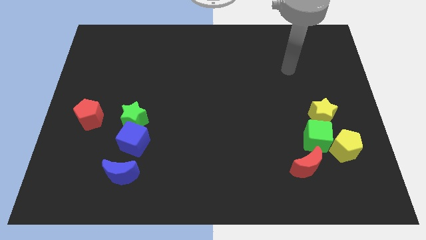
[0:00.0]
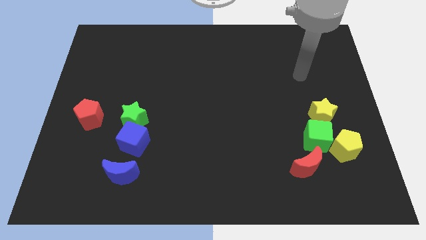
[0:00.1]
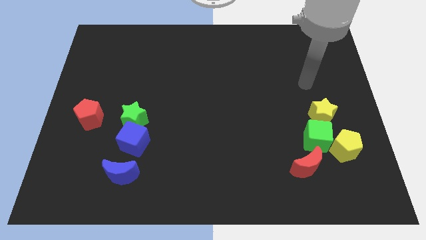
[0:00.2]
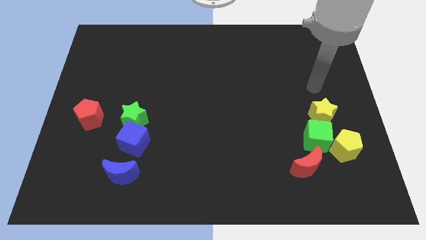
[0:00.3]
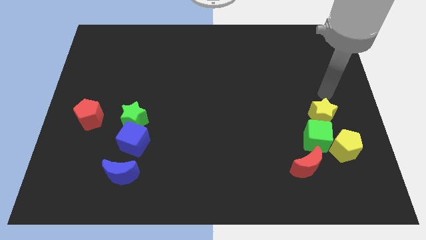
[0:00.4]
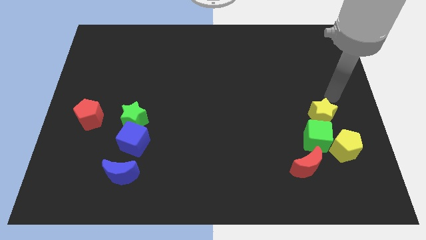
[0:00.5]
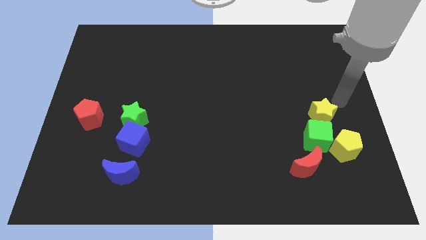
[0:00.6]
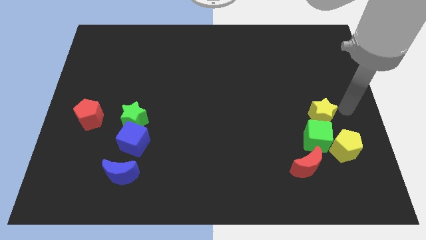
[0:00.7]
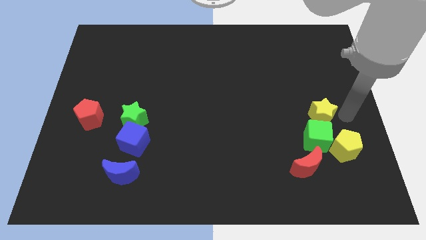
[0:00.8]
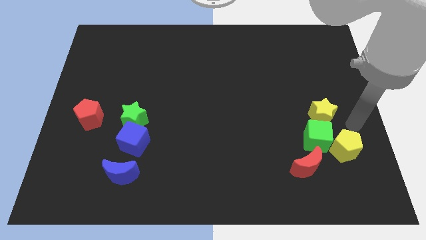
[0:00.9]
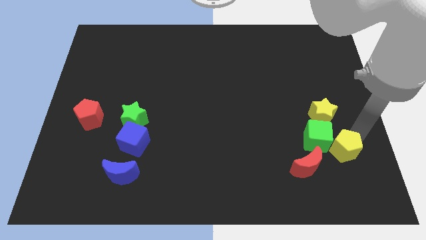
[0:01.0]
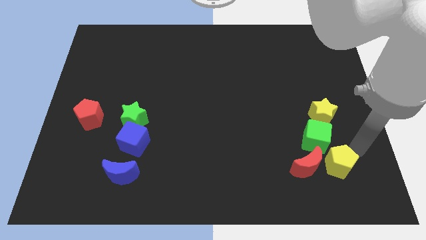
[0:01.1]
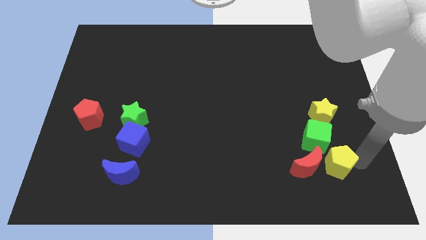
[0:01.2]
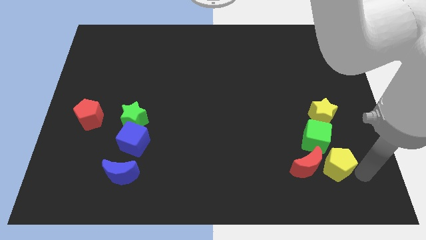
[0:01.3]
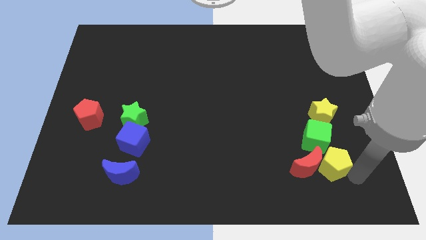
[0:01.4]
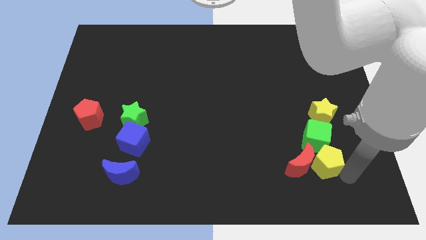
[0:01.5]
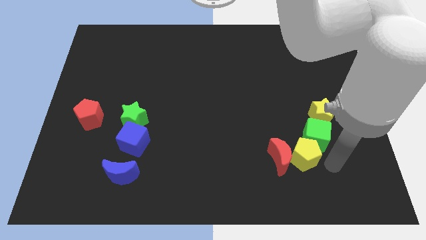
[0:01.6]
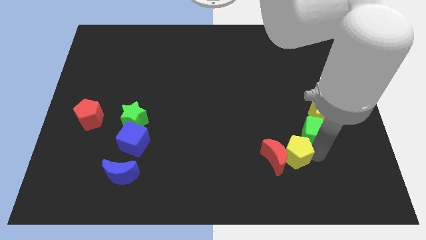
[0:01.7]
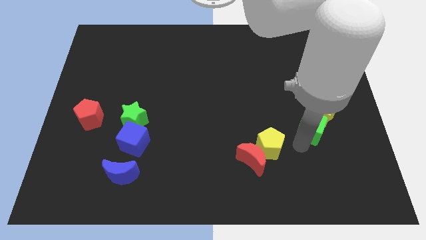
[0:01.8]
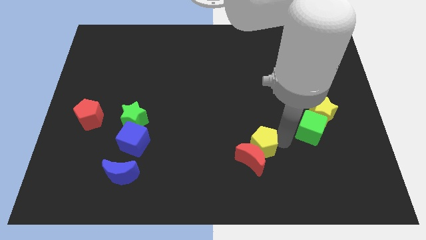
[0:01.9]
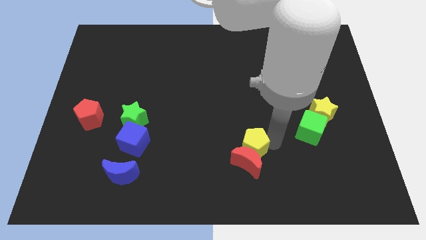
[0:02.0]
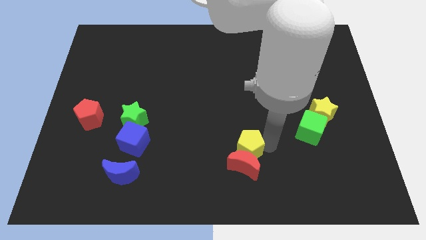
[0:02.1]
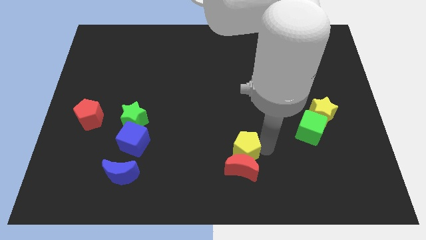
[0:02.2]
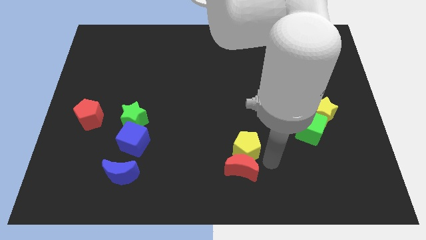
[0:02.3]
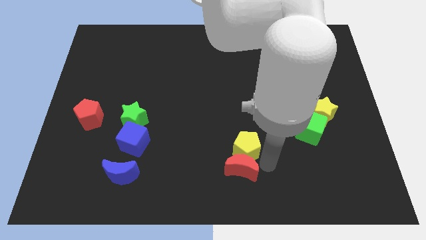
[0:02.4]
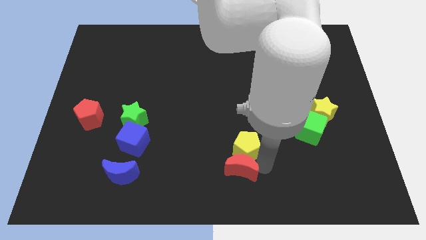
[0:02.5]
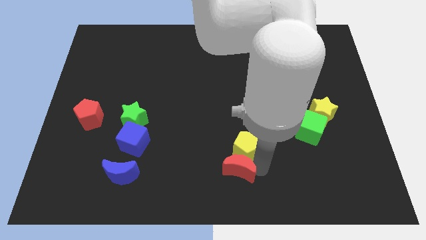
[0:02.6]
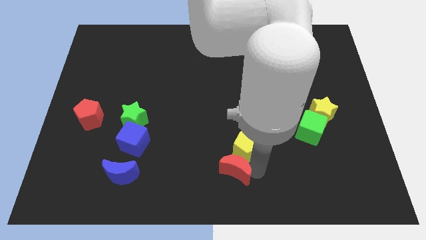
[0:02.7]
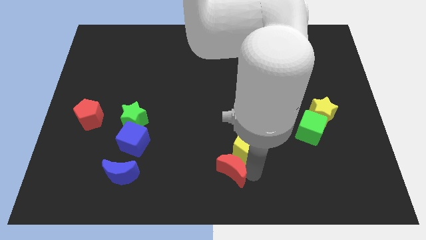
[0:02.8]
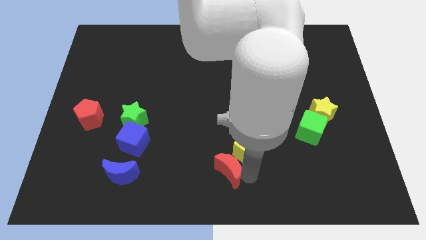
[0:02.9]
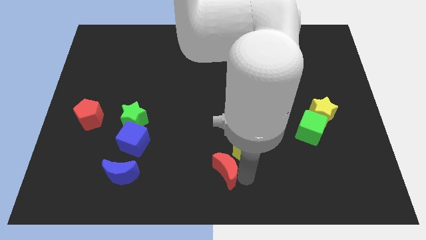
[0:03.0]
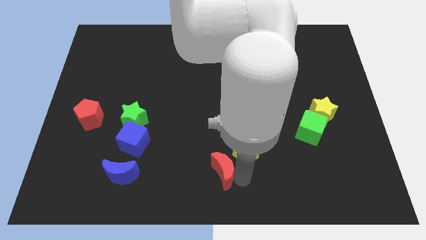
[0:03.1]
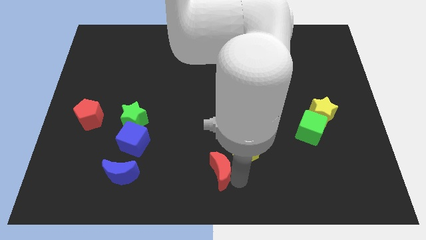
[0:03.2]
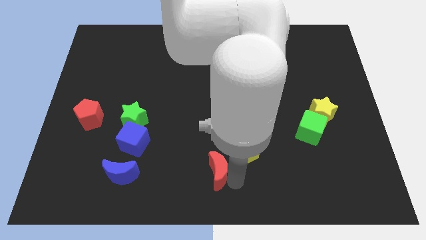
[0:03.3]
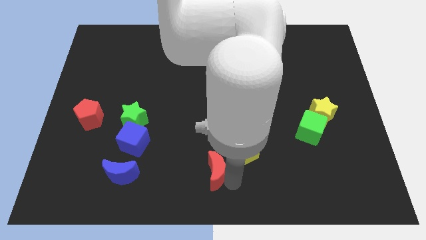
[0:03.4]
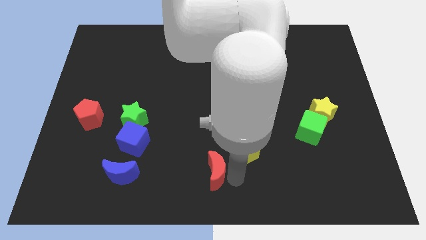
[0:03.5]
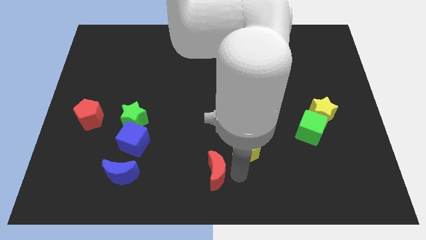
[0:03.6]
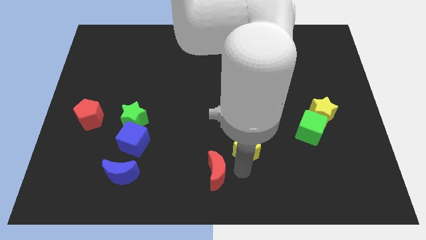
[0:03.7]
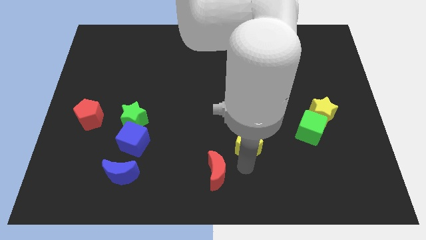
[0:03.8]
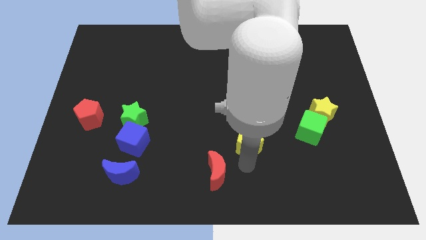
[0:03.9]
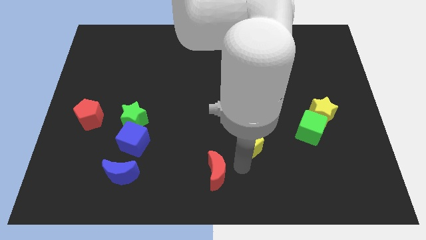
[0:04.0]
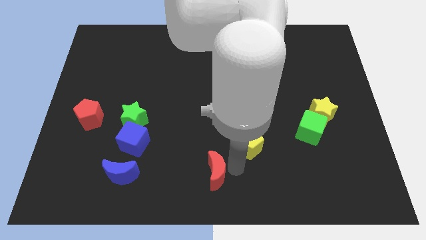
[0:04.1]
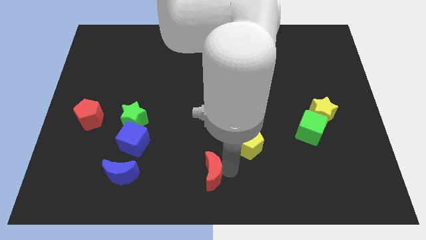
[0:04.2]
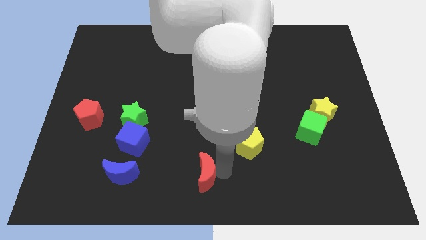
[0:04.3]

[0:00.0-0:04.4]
push the red moon left

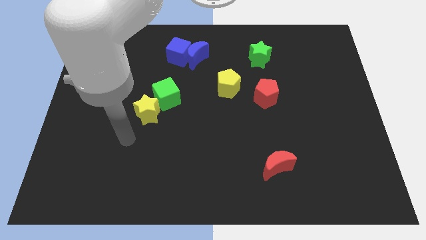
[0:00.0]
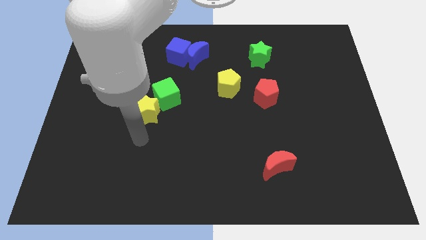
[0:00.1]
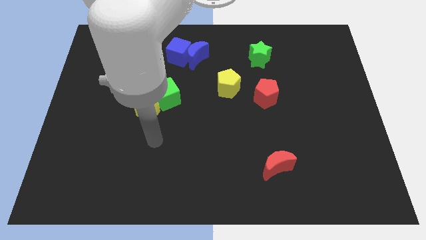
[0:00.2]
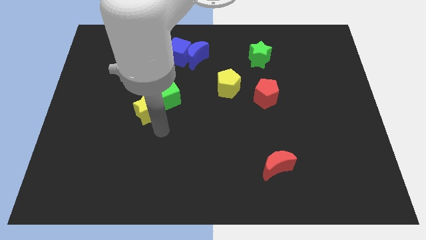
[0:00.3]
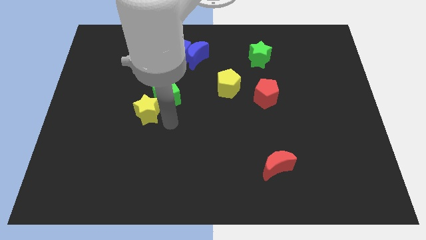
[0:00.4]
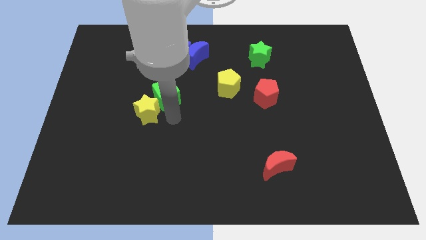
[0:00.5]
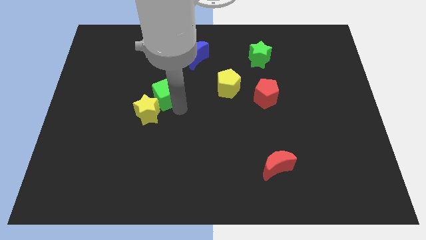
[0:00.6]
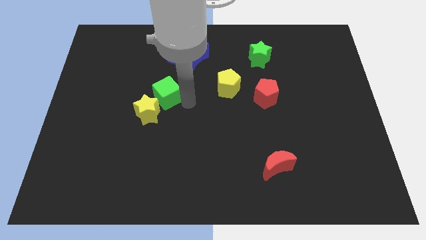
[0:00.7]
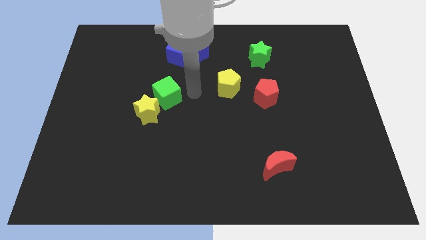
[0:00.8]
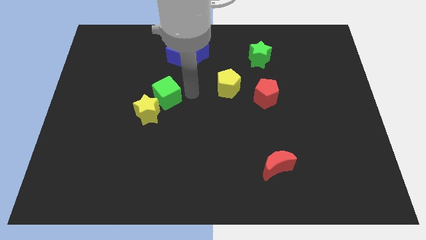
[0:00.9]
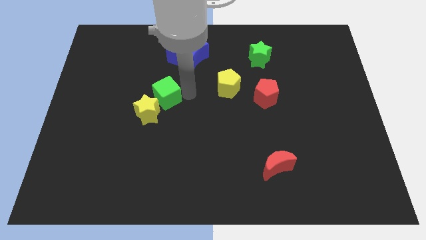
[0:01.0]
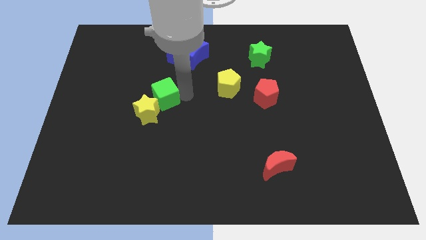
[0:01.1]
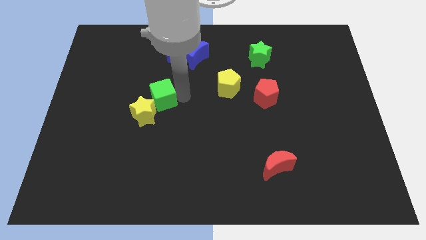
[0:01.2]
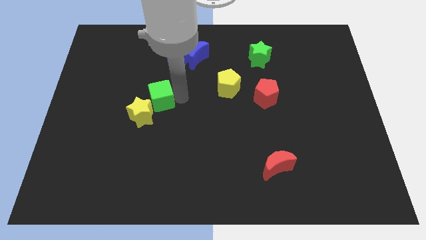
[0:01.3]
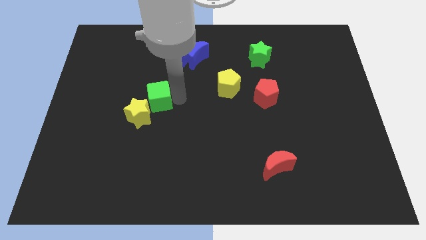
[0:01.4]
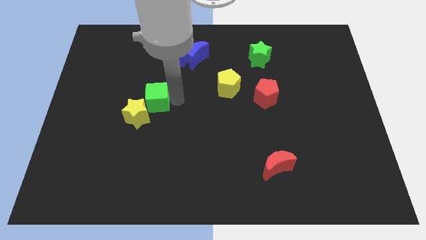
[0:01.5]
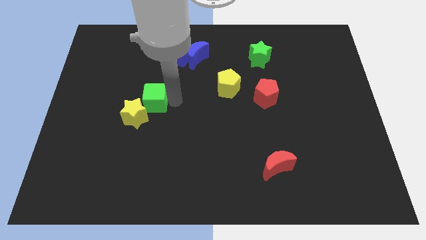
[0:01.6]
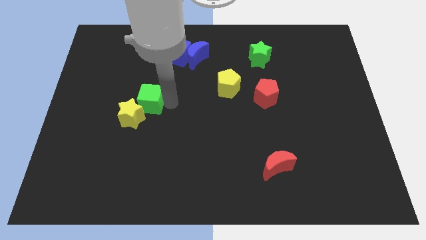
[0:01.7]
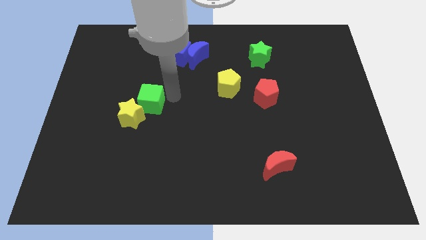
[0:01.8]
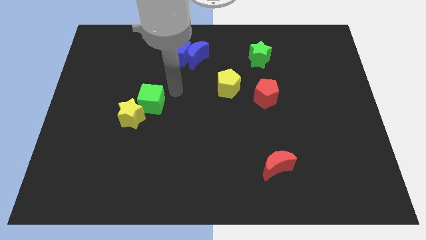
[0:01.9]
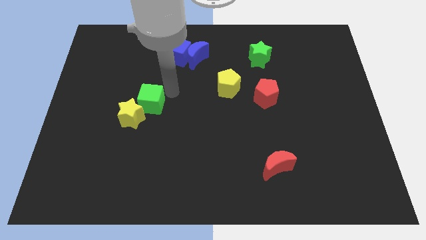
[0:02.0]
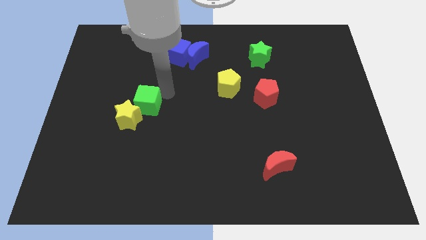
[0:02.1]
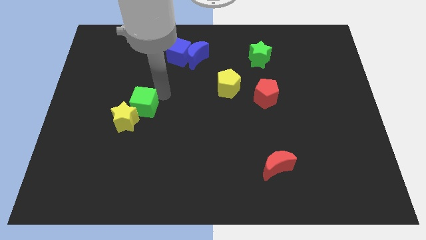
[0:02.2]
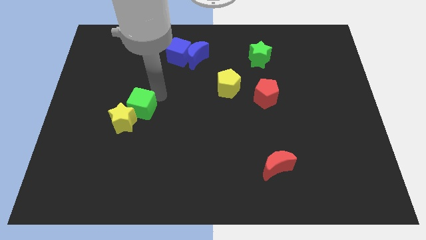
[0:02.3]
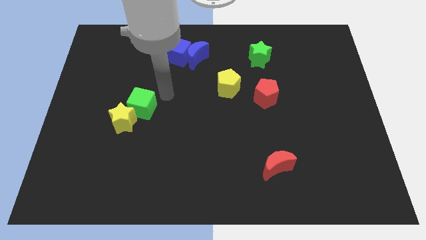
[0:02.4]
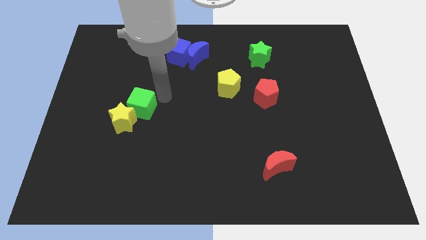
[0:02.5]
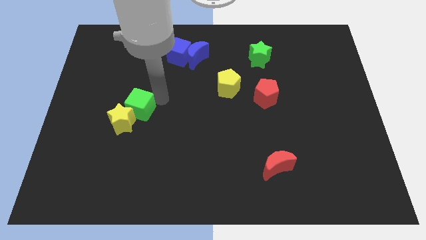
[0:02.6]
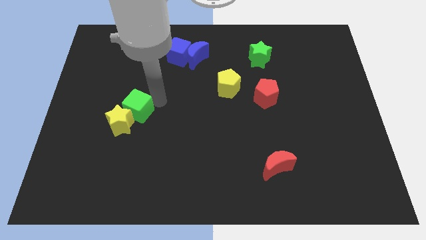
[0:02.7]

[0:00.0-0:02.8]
move the green cube a little bit down and left diagonally

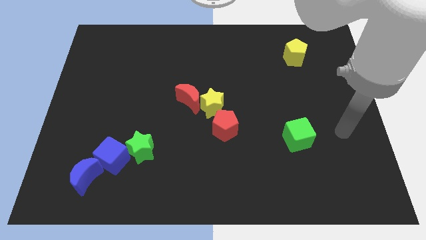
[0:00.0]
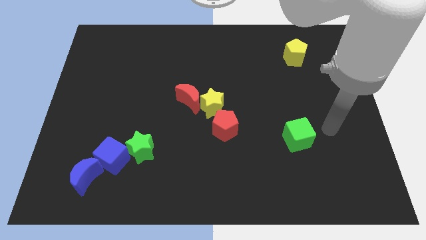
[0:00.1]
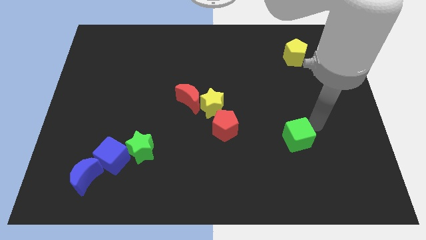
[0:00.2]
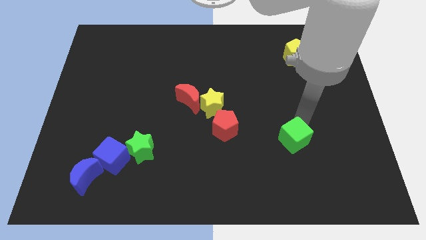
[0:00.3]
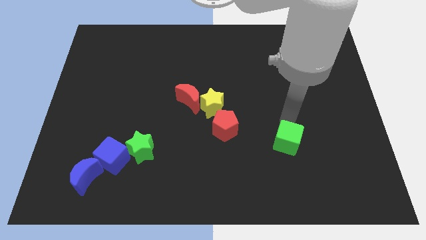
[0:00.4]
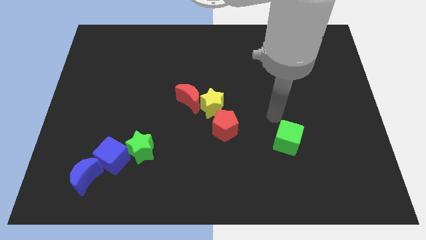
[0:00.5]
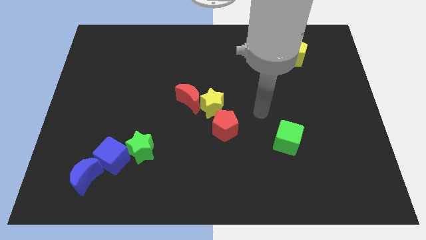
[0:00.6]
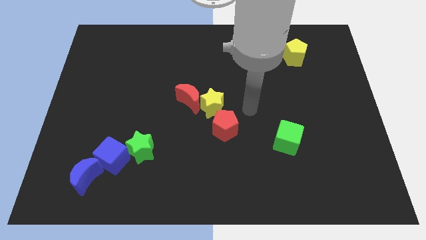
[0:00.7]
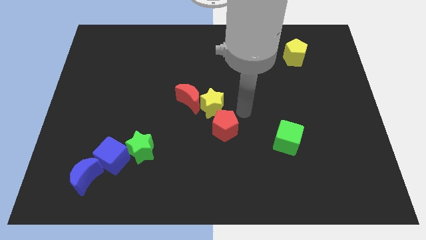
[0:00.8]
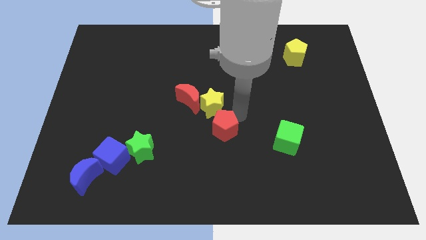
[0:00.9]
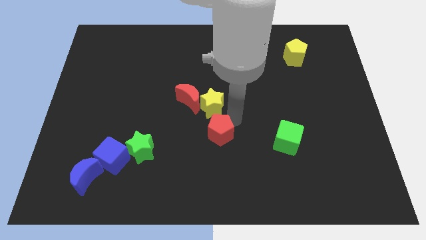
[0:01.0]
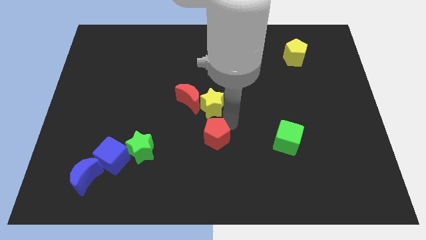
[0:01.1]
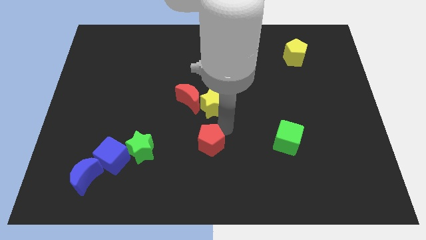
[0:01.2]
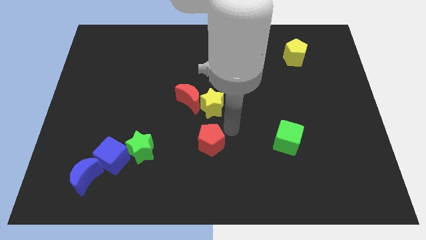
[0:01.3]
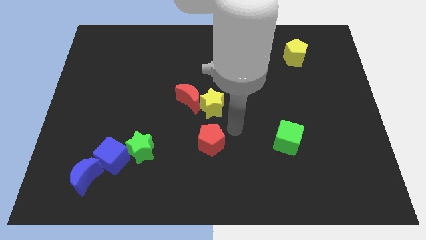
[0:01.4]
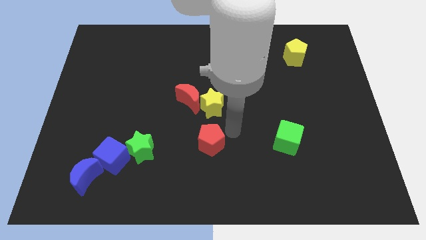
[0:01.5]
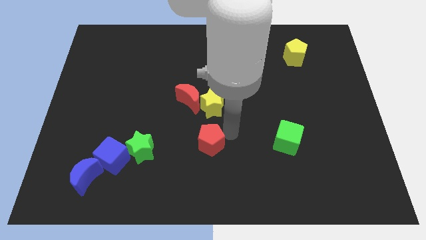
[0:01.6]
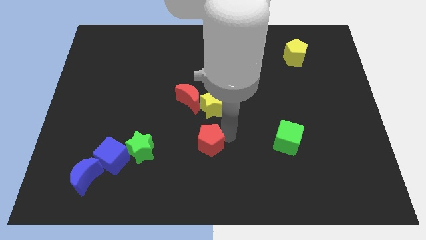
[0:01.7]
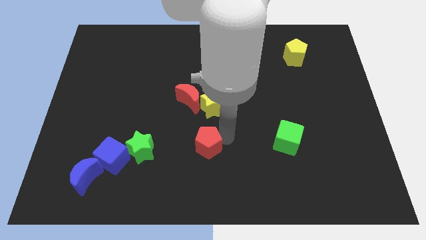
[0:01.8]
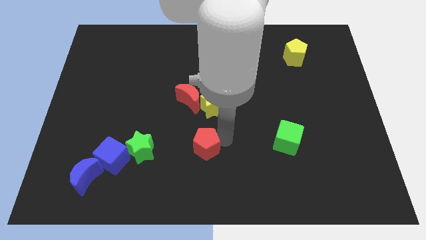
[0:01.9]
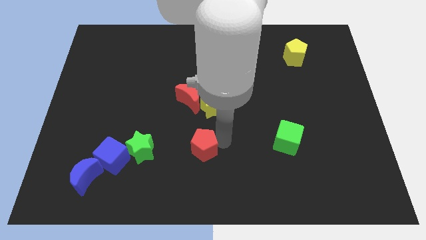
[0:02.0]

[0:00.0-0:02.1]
push the red pentagon down and left somewhat
